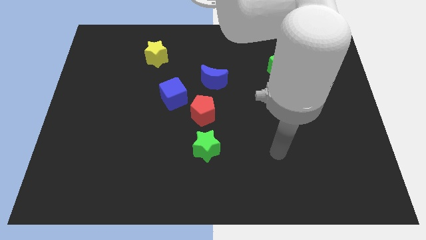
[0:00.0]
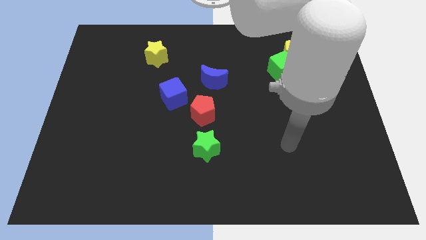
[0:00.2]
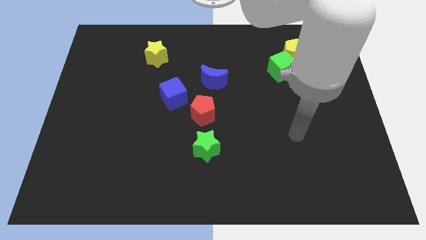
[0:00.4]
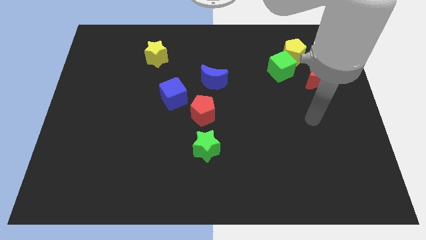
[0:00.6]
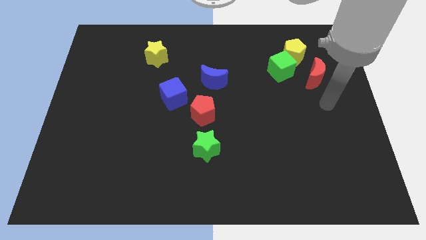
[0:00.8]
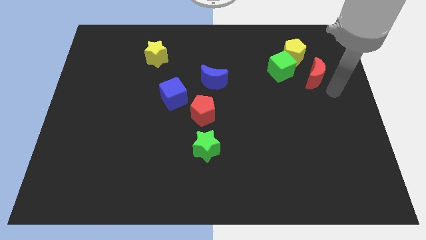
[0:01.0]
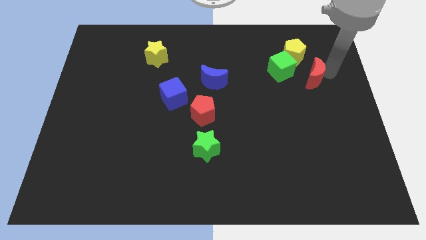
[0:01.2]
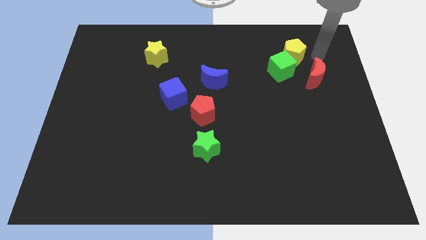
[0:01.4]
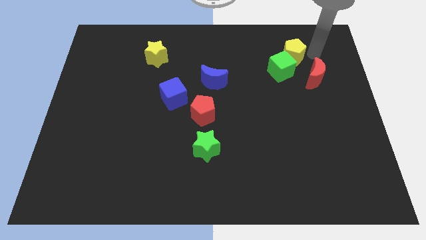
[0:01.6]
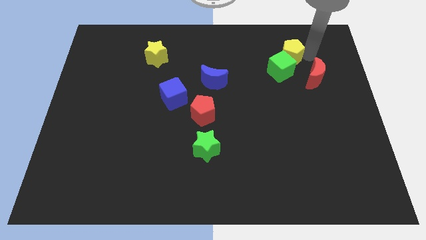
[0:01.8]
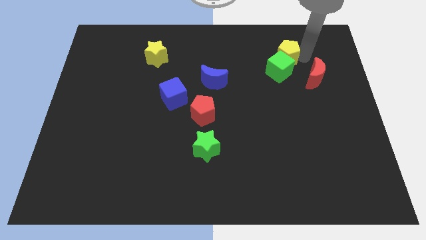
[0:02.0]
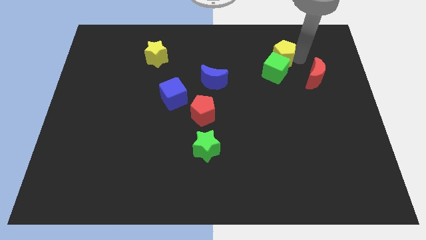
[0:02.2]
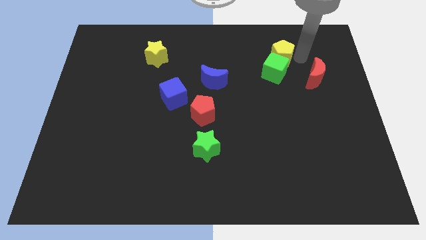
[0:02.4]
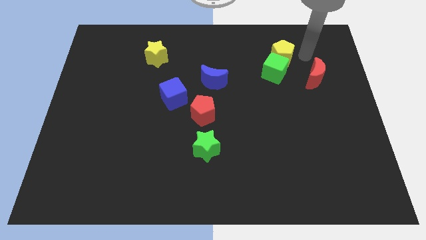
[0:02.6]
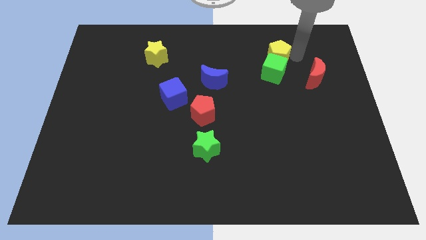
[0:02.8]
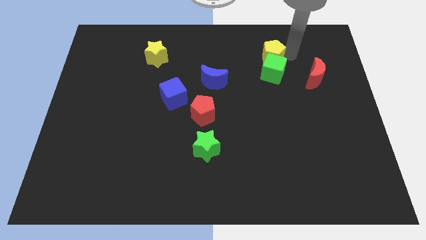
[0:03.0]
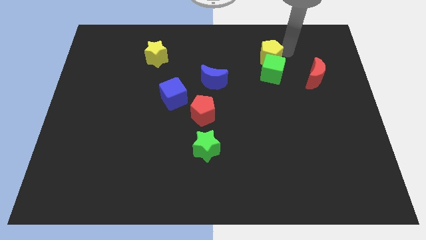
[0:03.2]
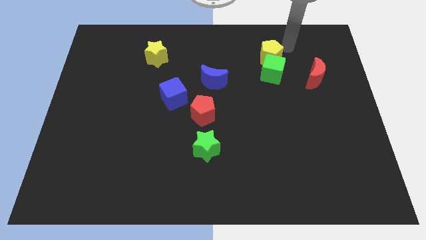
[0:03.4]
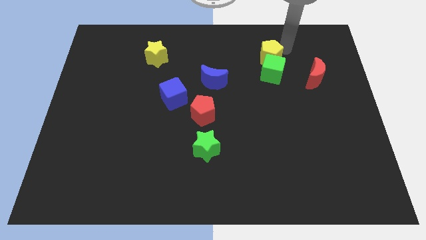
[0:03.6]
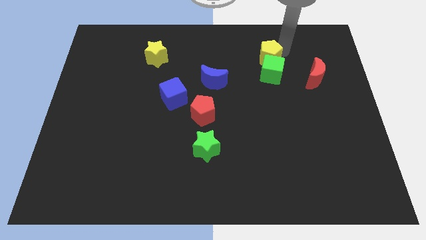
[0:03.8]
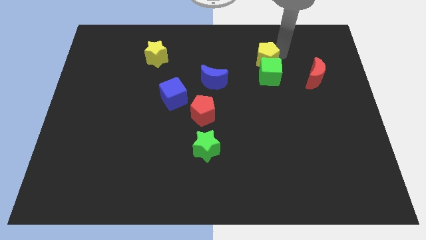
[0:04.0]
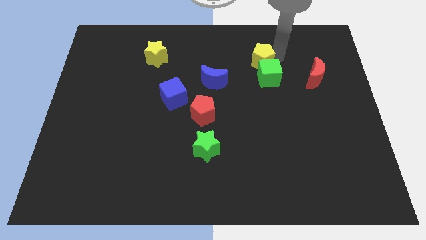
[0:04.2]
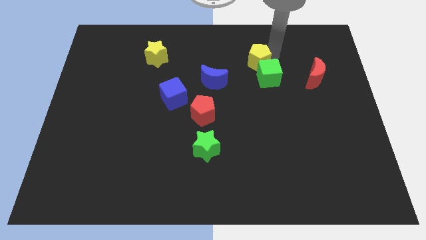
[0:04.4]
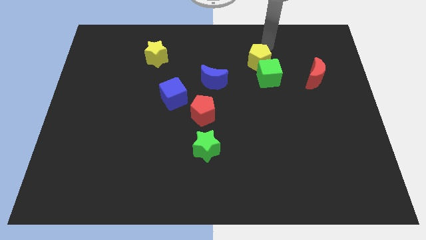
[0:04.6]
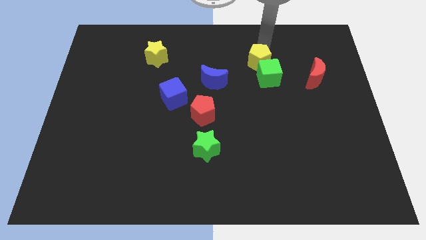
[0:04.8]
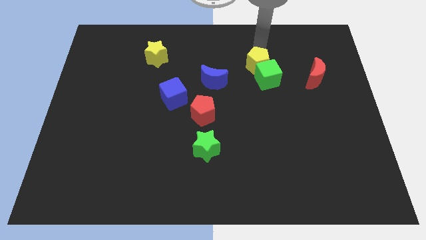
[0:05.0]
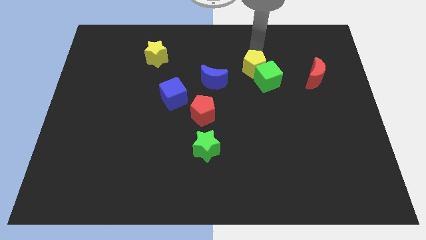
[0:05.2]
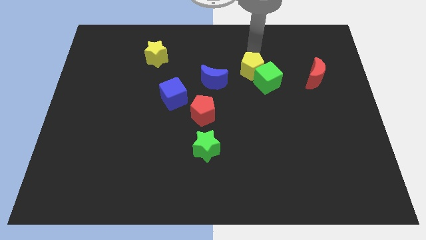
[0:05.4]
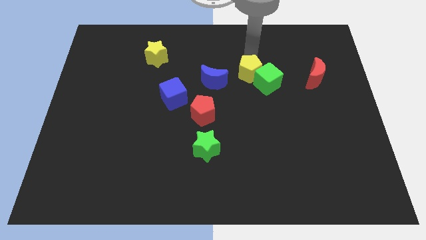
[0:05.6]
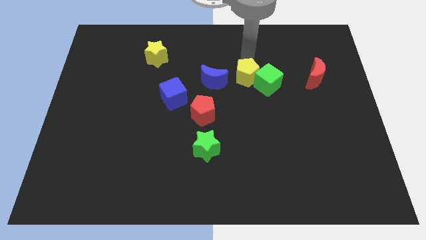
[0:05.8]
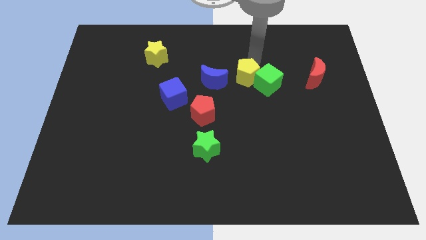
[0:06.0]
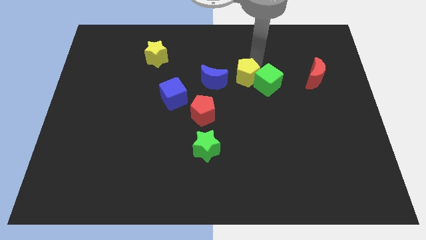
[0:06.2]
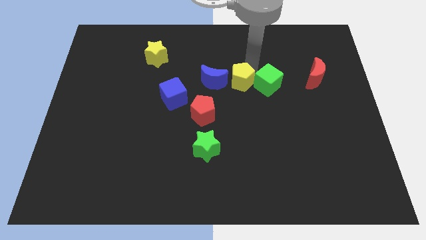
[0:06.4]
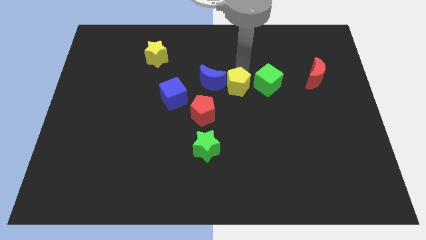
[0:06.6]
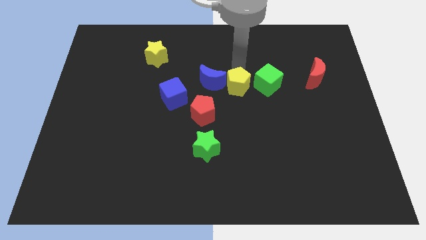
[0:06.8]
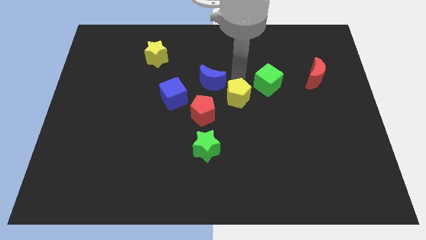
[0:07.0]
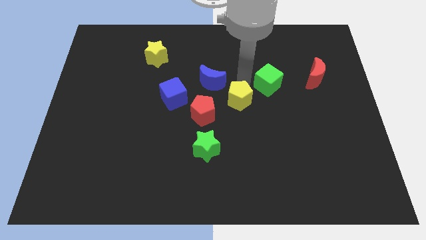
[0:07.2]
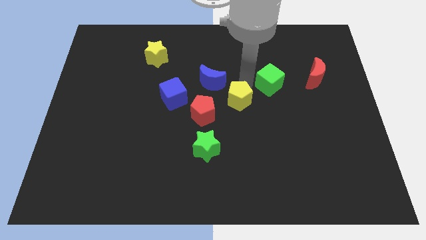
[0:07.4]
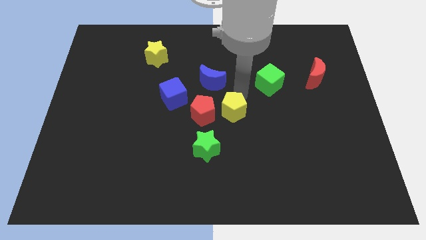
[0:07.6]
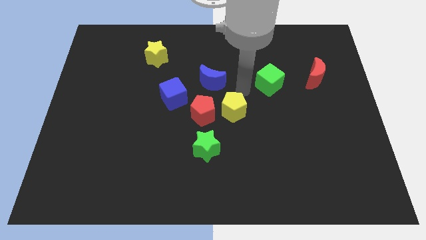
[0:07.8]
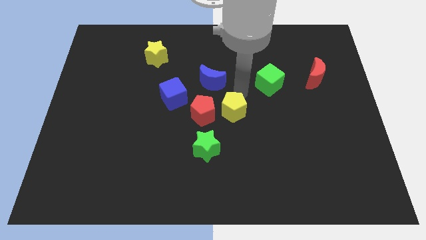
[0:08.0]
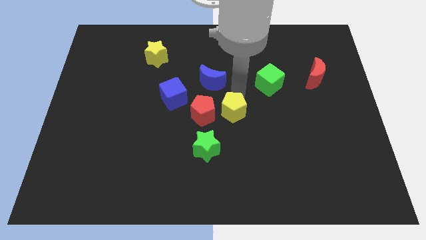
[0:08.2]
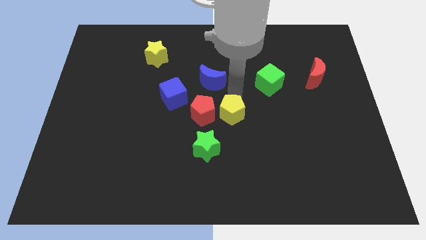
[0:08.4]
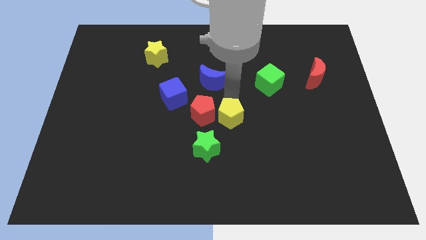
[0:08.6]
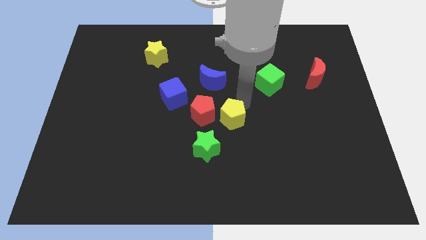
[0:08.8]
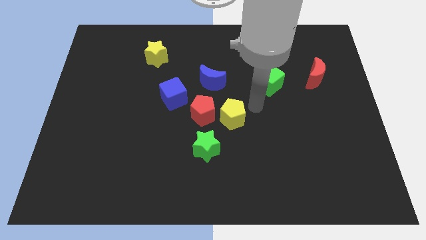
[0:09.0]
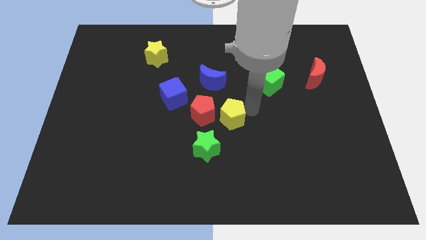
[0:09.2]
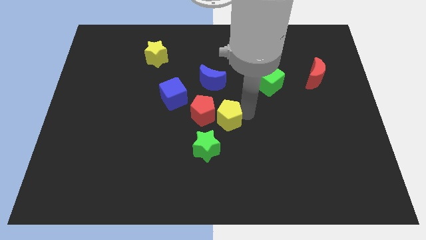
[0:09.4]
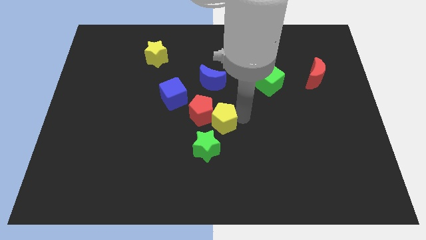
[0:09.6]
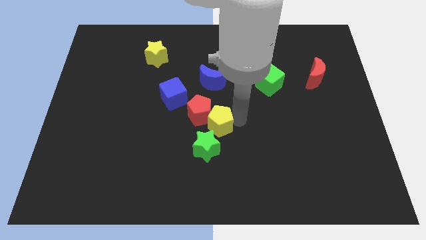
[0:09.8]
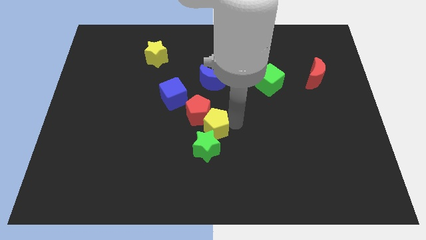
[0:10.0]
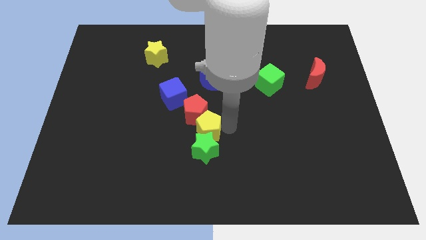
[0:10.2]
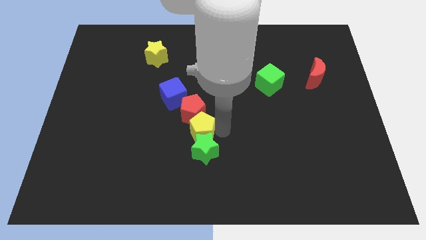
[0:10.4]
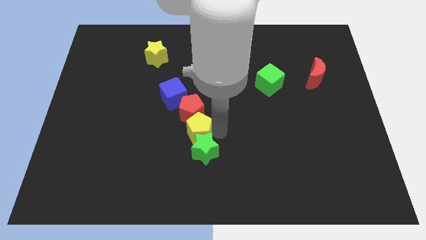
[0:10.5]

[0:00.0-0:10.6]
slide the yellow pentagon to the bottom left side of the red pentagon

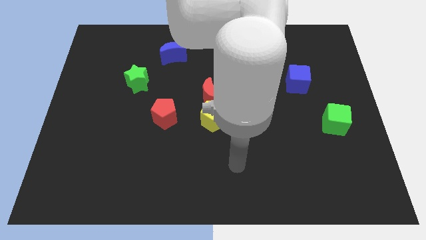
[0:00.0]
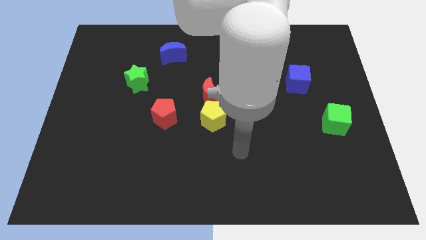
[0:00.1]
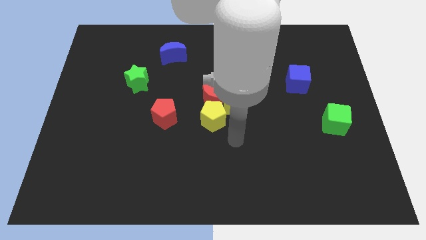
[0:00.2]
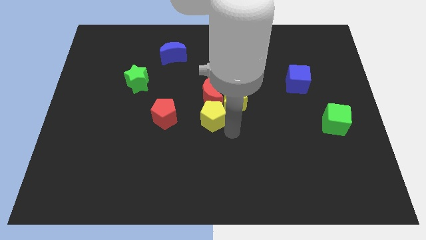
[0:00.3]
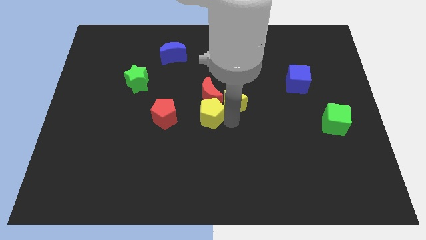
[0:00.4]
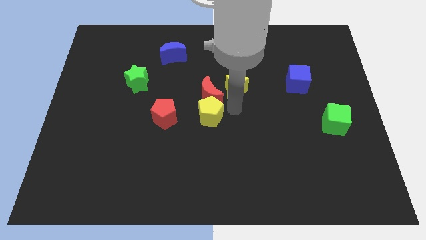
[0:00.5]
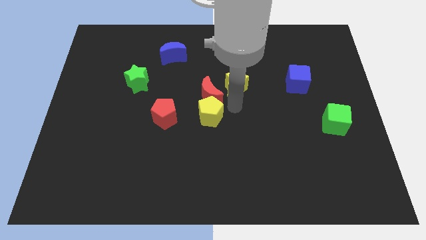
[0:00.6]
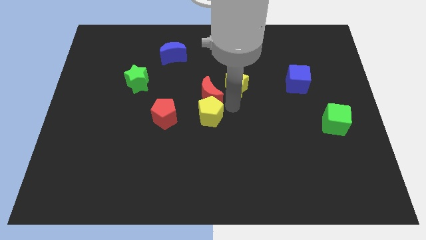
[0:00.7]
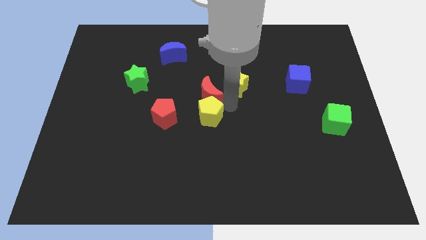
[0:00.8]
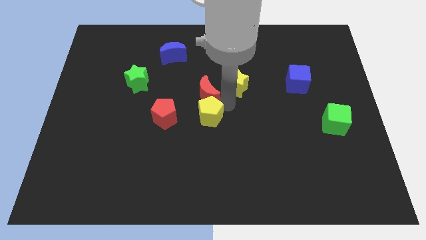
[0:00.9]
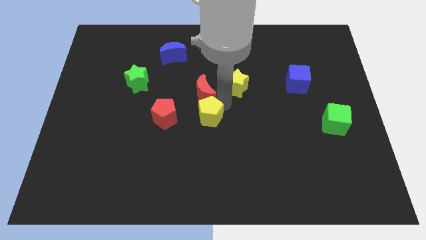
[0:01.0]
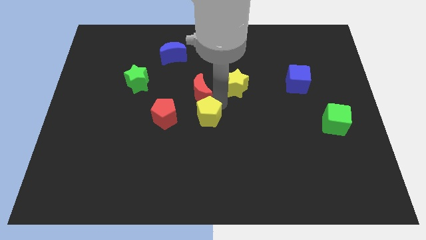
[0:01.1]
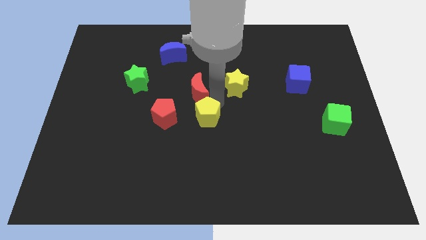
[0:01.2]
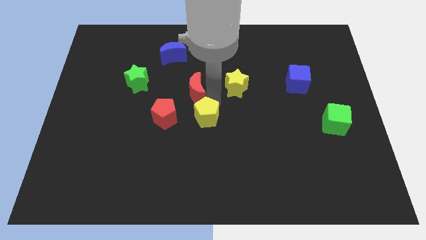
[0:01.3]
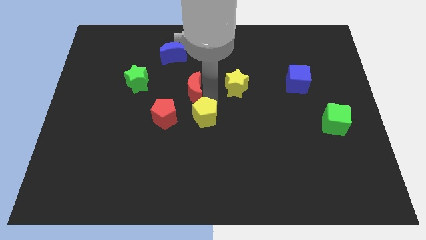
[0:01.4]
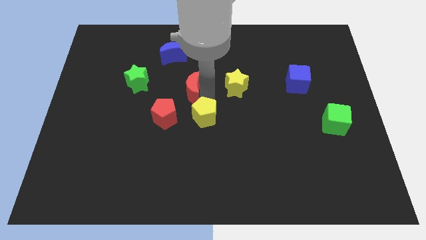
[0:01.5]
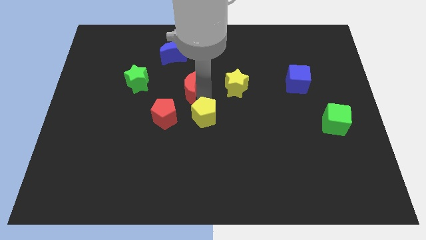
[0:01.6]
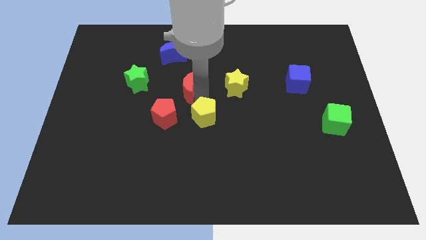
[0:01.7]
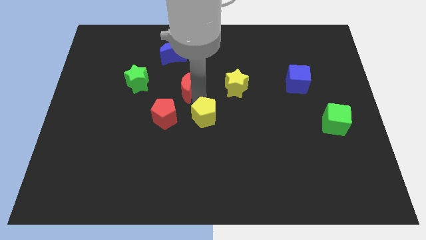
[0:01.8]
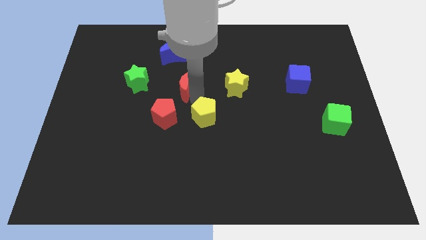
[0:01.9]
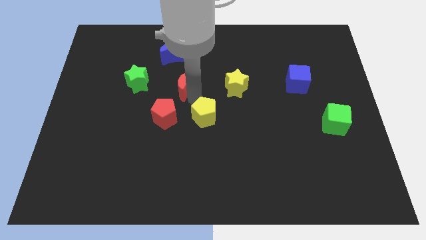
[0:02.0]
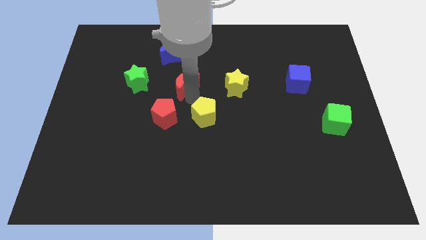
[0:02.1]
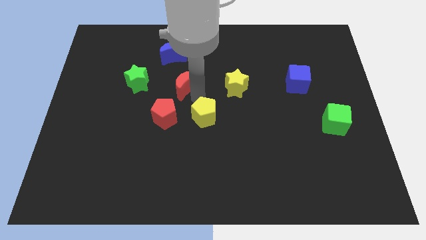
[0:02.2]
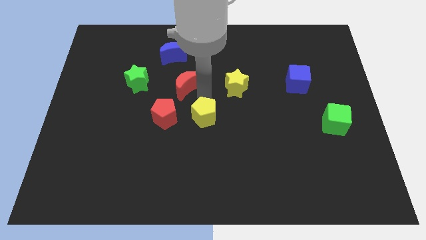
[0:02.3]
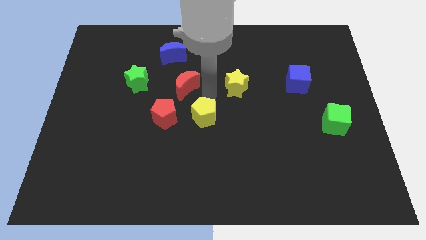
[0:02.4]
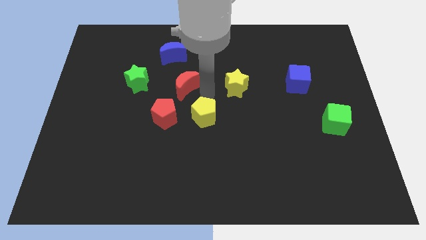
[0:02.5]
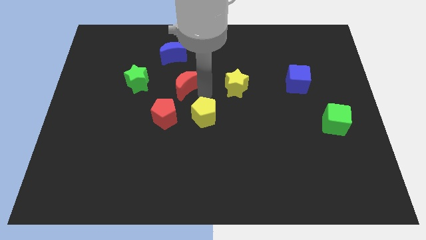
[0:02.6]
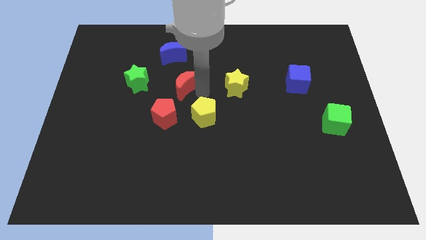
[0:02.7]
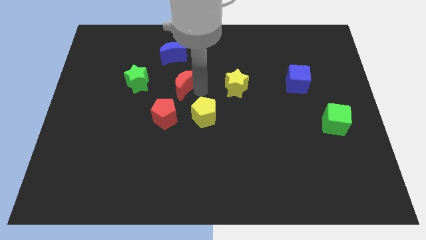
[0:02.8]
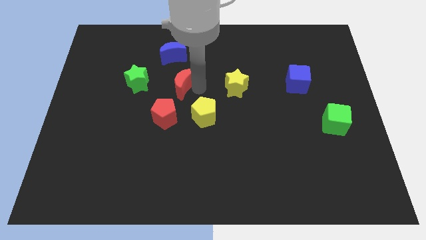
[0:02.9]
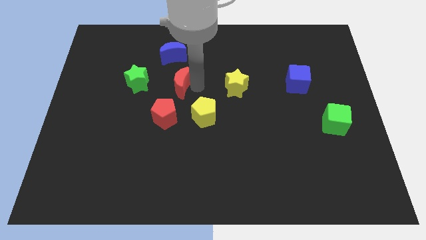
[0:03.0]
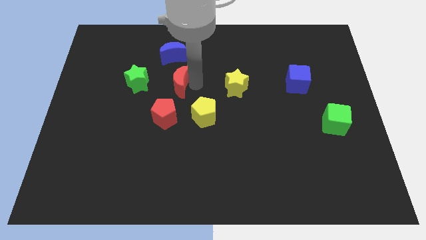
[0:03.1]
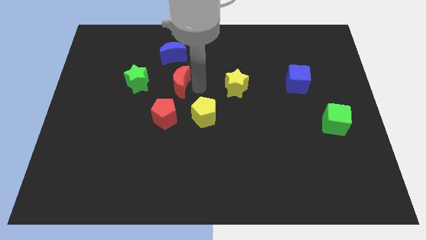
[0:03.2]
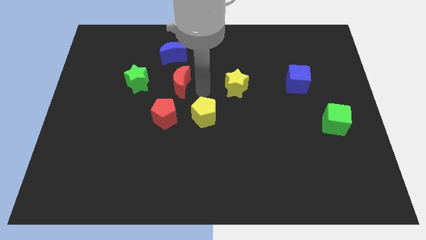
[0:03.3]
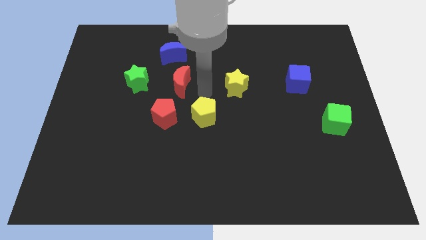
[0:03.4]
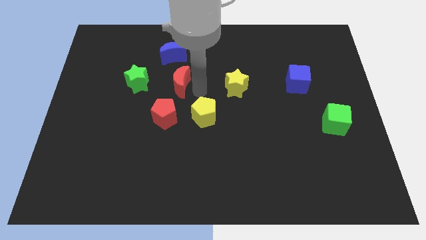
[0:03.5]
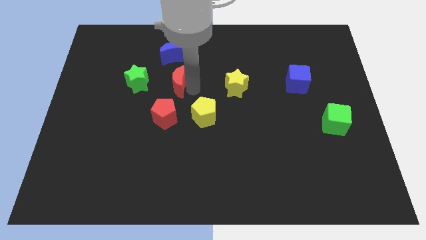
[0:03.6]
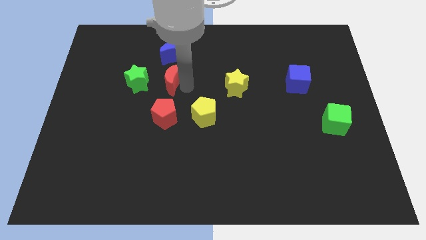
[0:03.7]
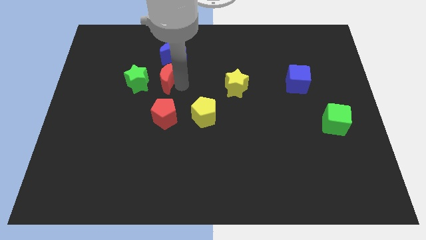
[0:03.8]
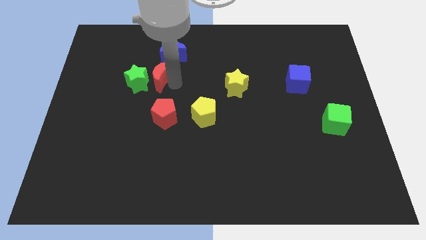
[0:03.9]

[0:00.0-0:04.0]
push the red moon to the bottom left side of the blue moon
